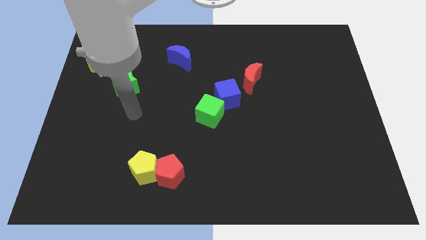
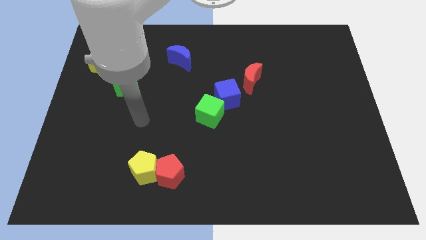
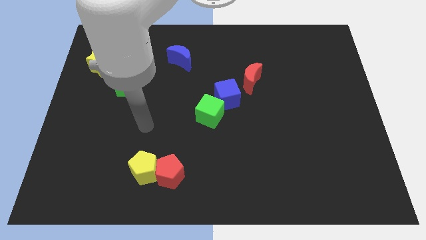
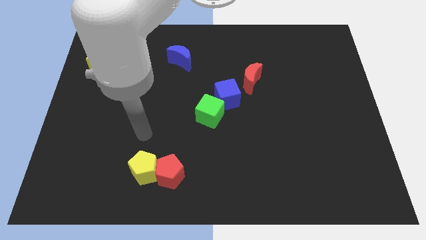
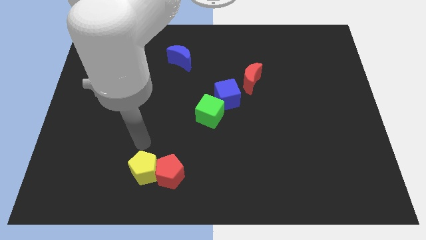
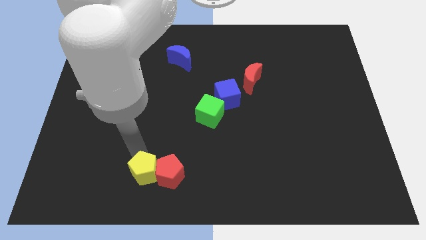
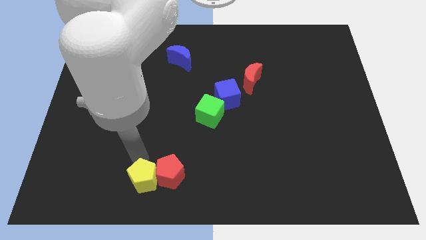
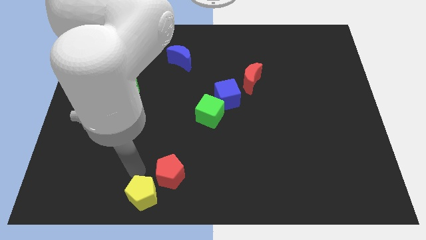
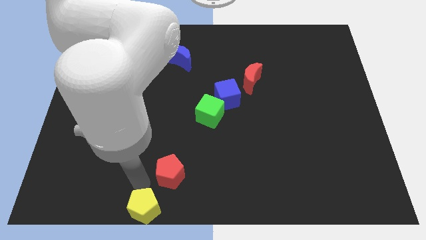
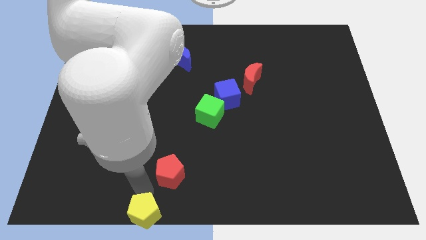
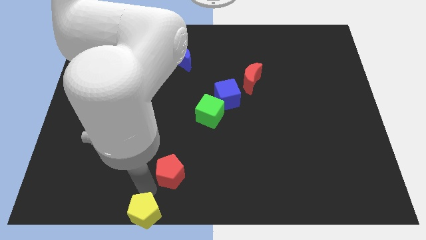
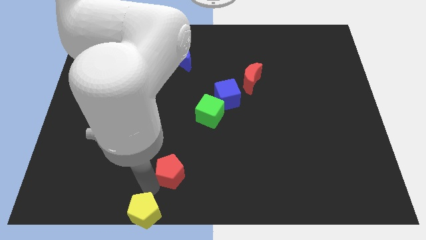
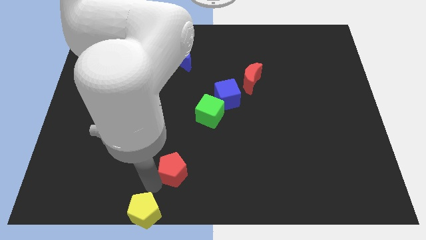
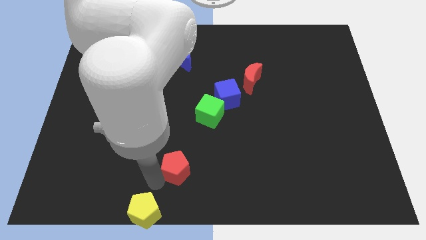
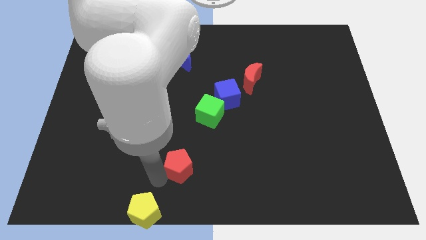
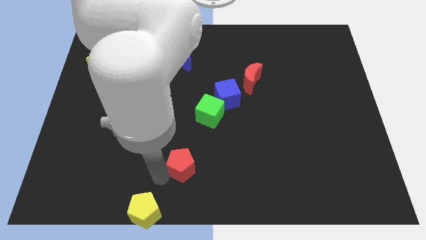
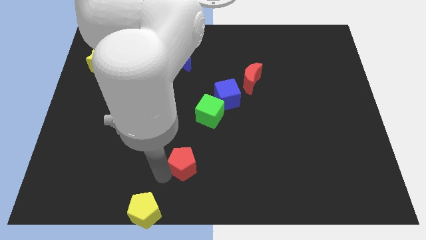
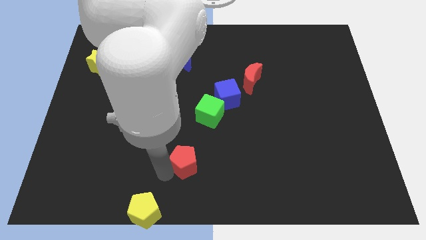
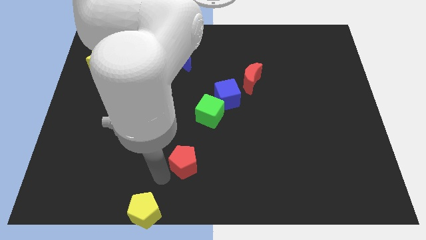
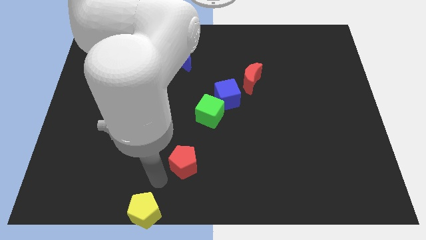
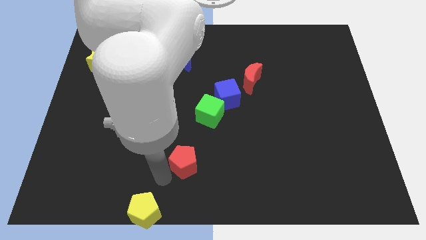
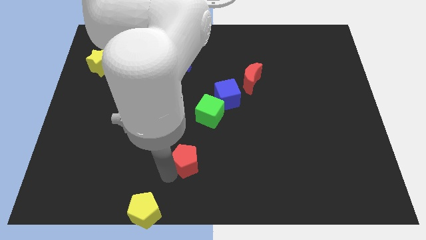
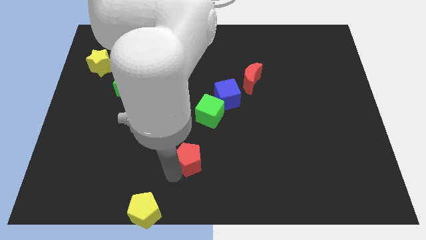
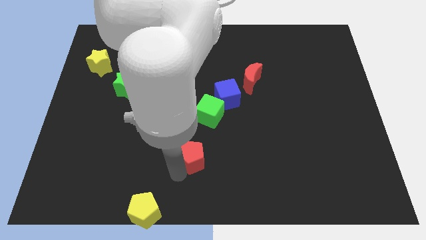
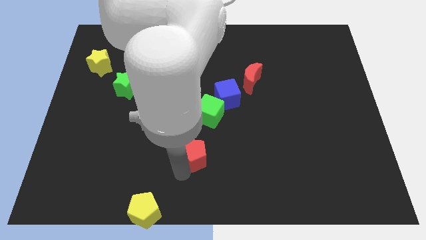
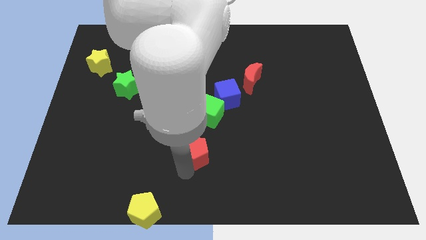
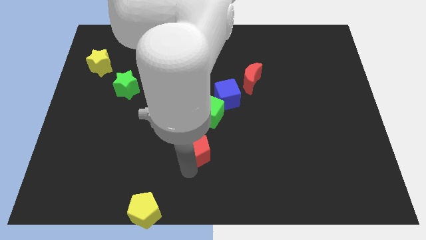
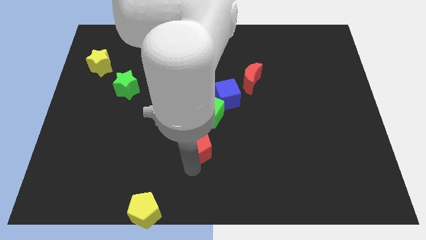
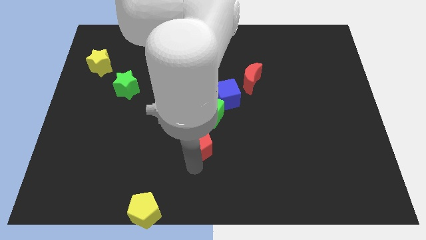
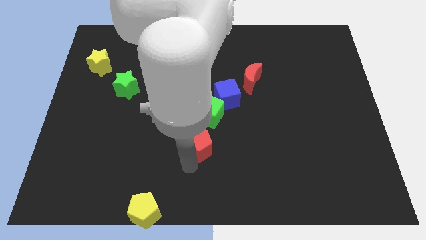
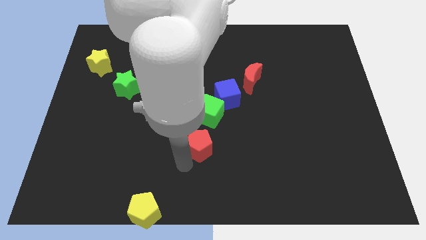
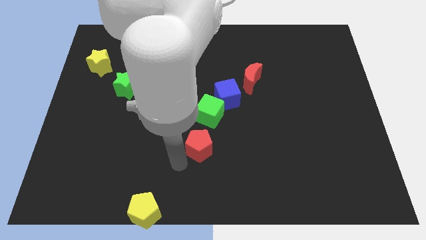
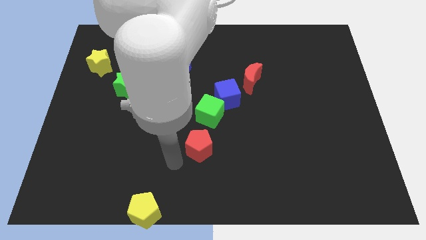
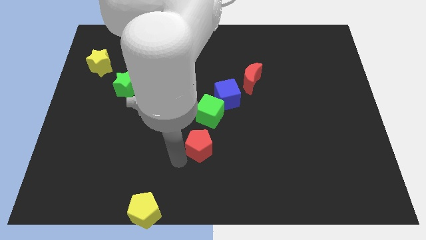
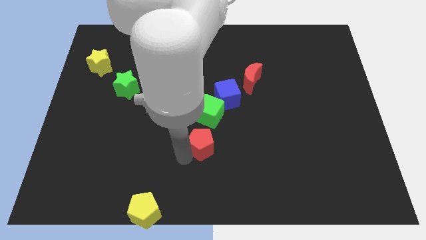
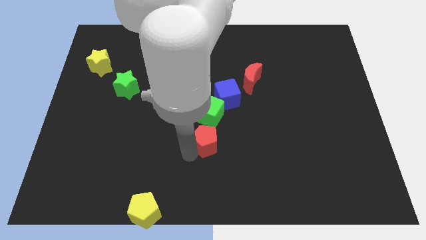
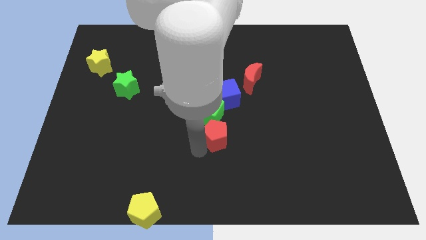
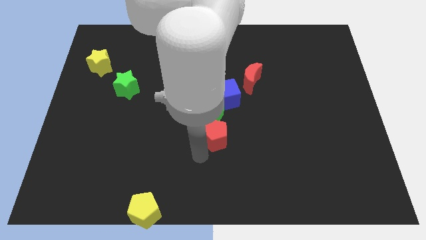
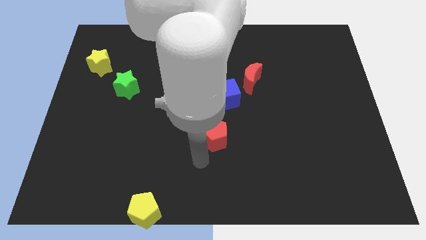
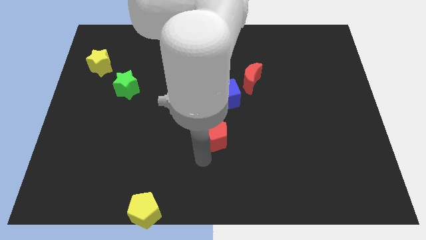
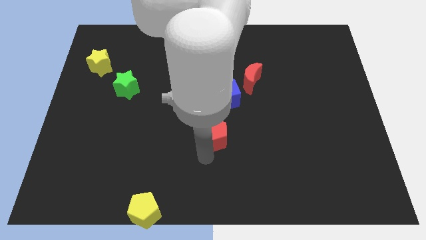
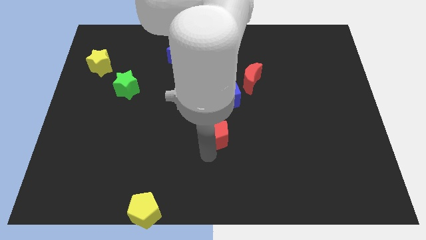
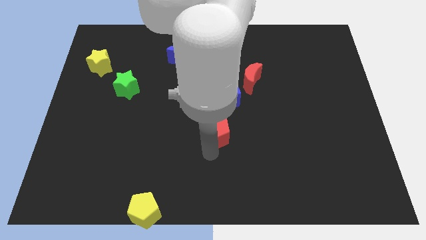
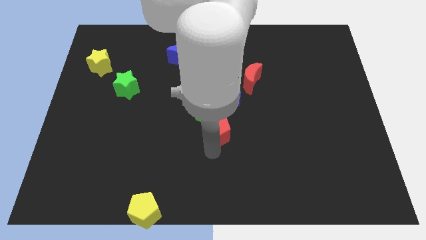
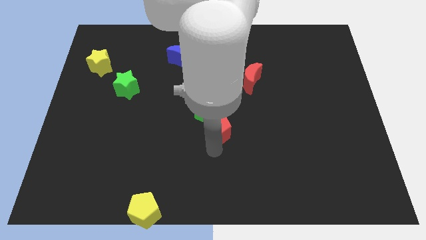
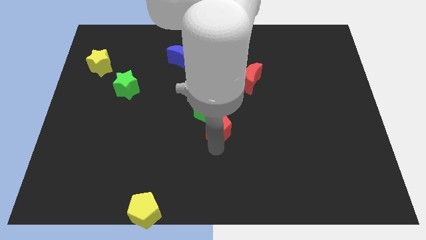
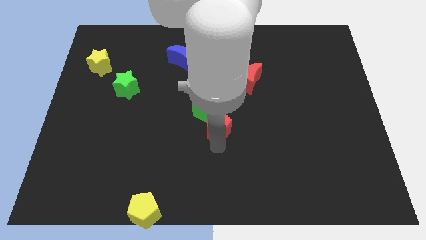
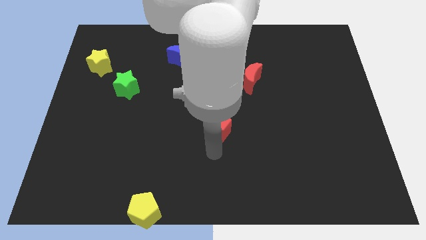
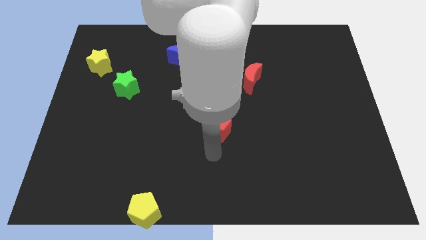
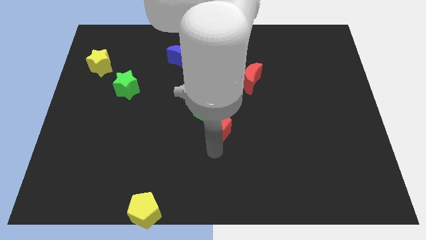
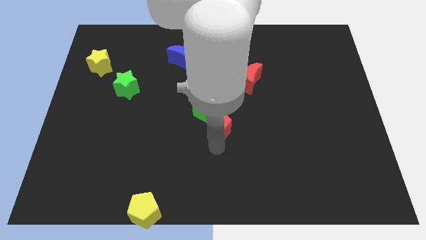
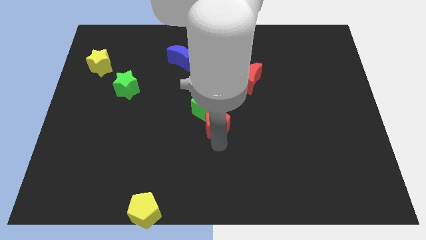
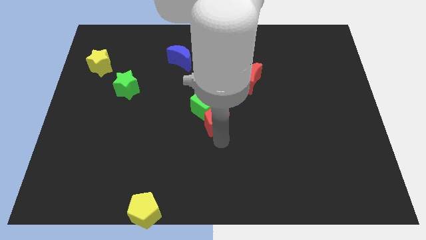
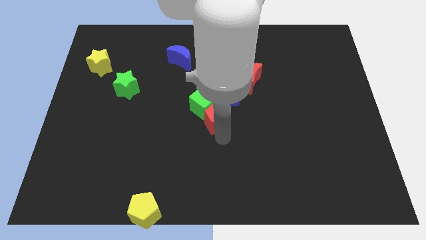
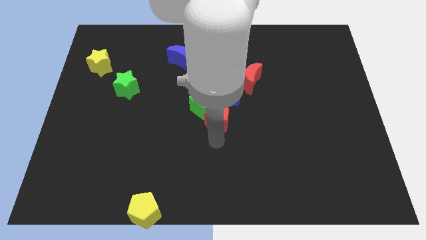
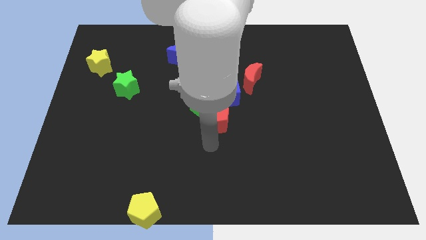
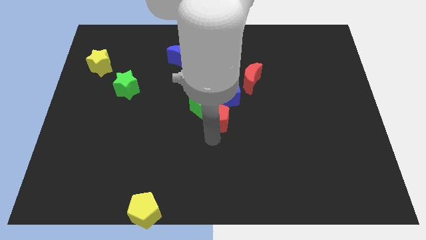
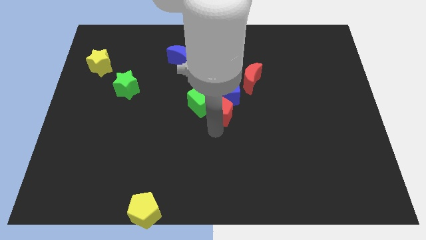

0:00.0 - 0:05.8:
move the red pentagon next to the blue cube

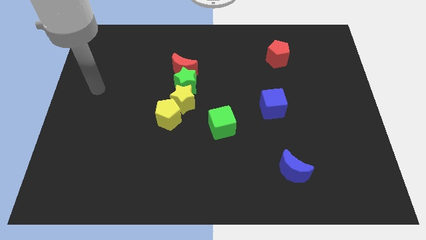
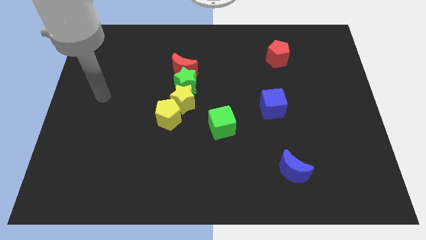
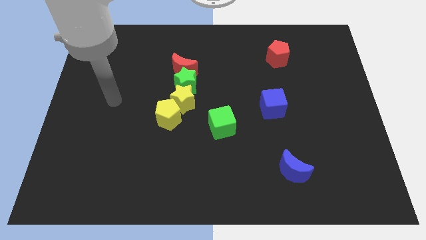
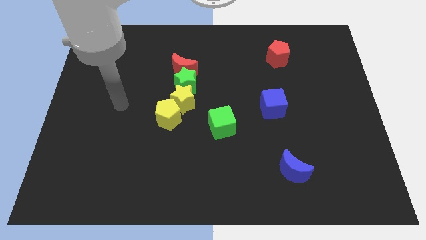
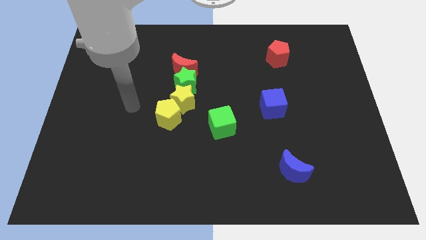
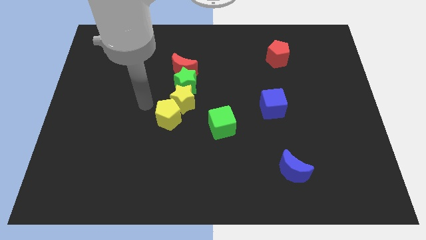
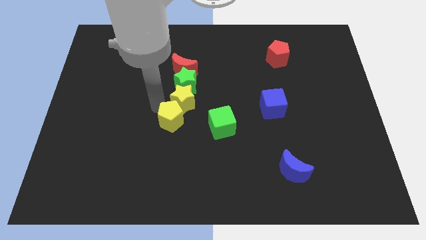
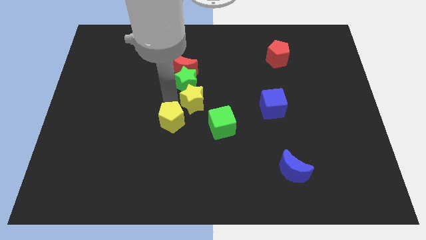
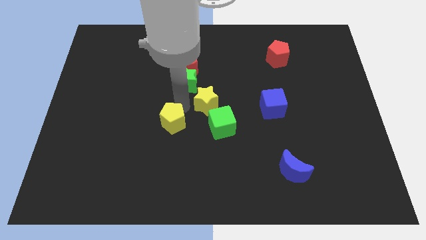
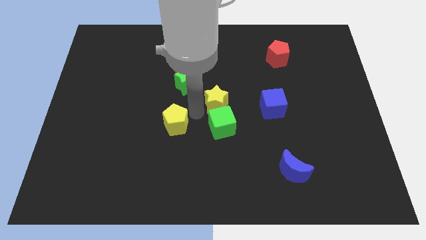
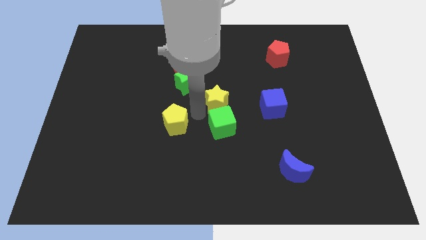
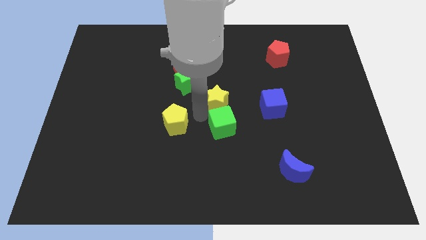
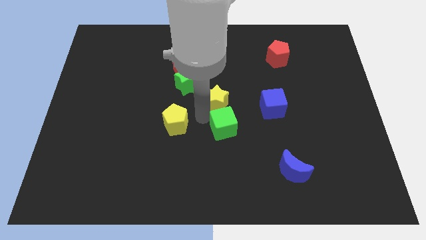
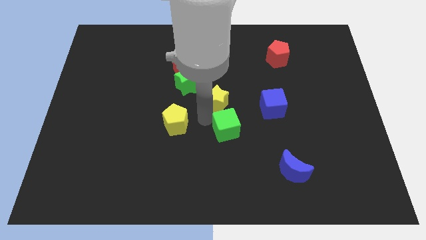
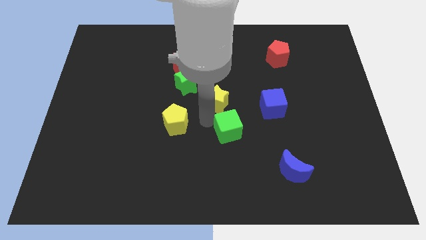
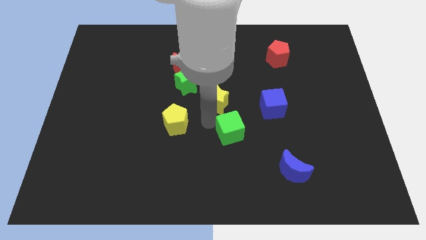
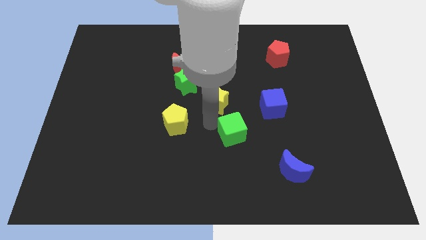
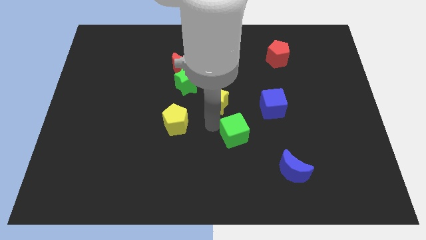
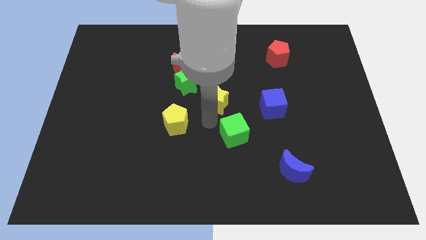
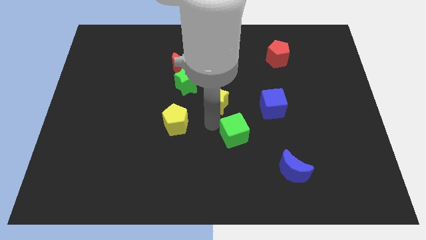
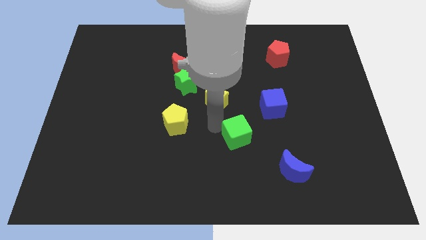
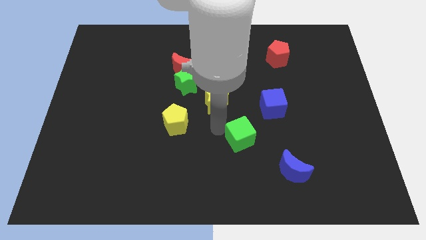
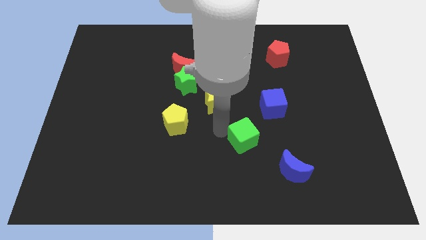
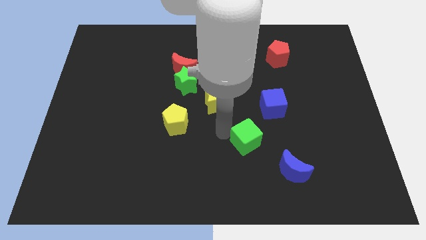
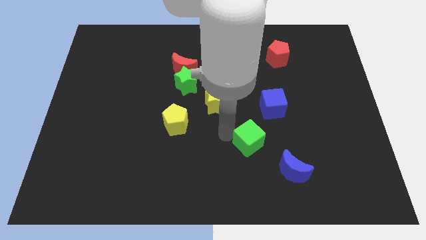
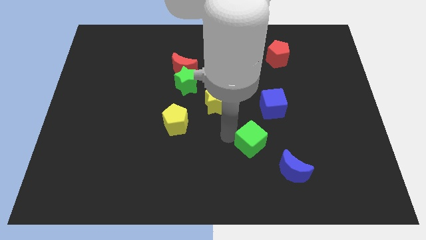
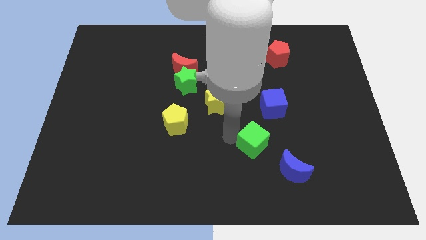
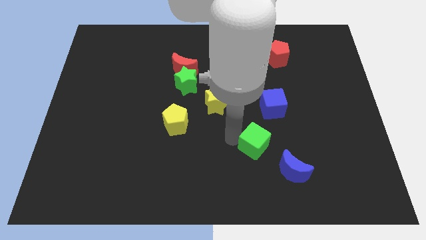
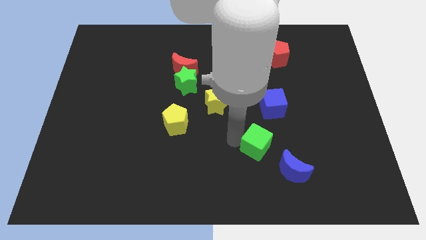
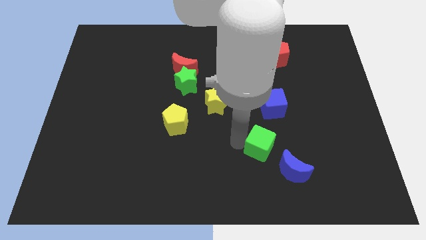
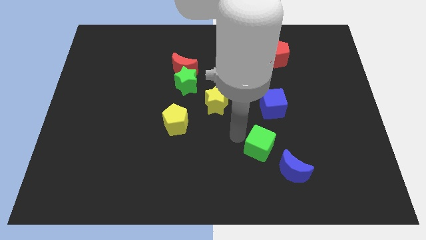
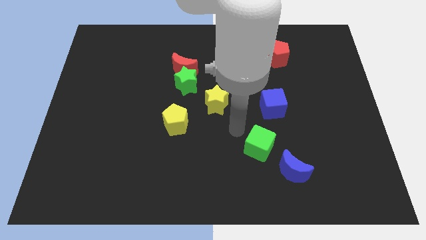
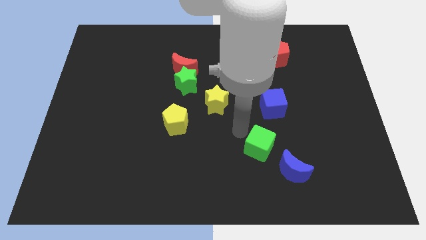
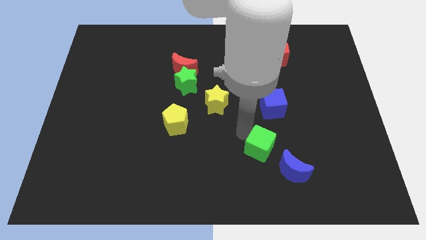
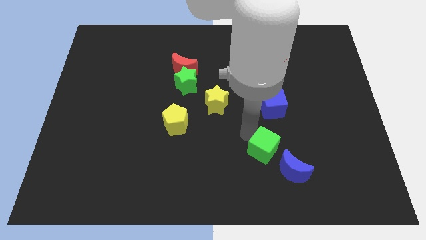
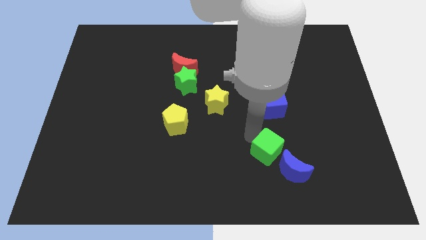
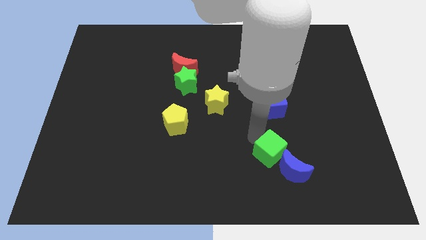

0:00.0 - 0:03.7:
put the green cube next to the blue moon
